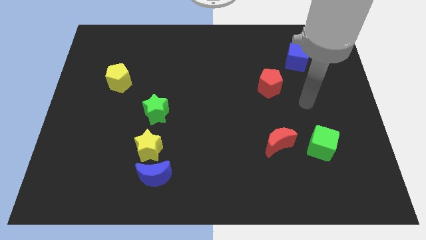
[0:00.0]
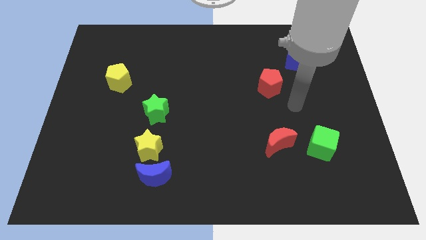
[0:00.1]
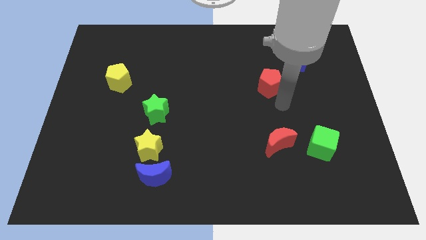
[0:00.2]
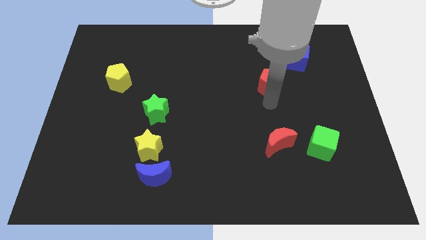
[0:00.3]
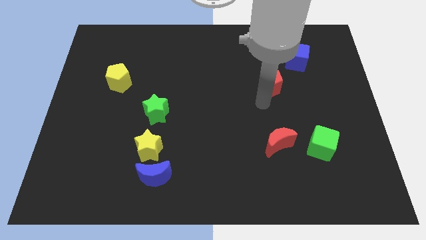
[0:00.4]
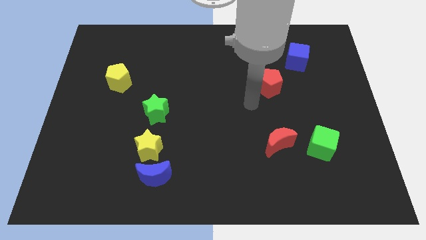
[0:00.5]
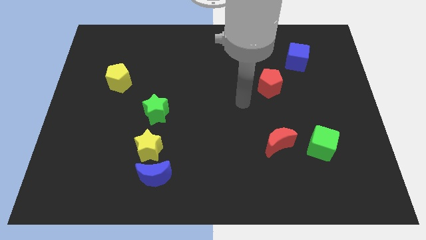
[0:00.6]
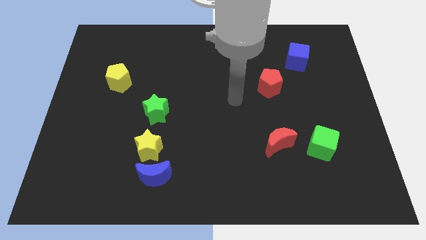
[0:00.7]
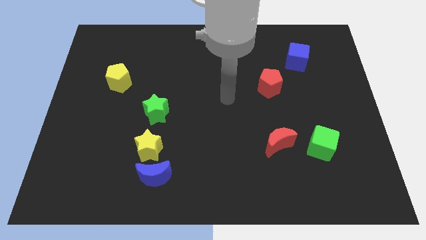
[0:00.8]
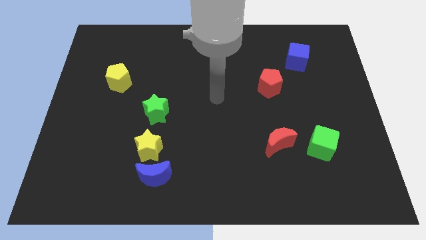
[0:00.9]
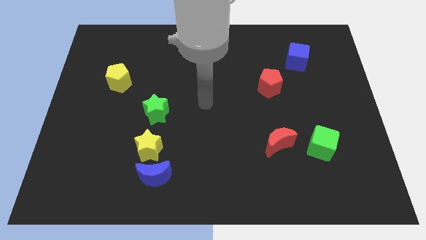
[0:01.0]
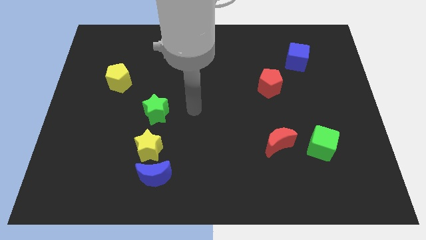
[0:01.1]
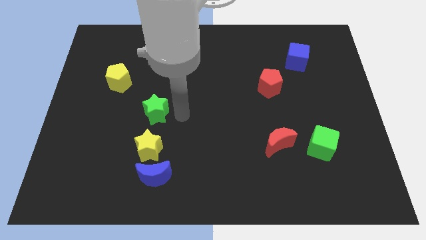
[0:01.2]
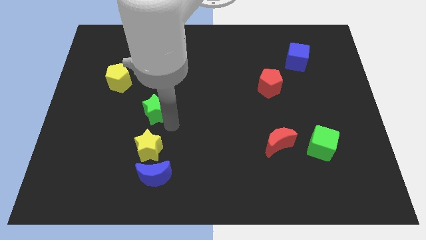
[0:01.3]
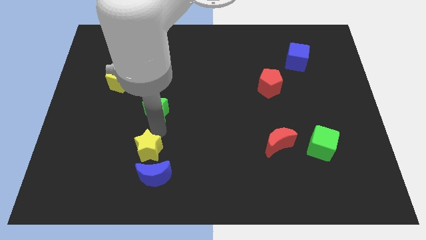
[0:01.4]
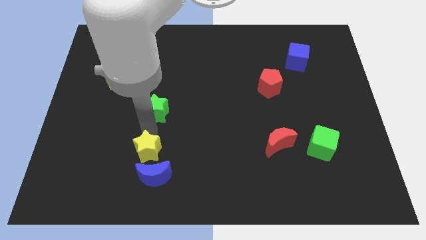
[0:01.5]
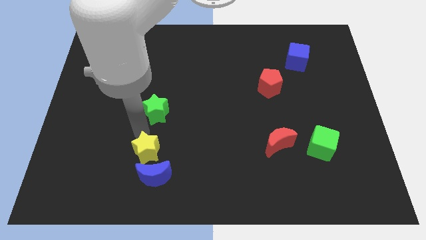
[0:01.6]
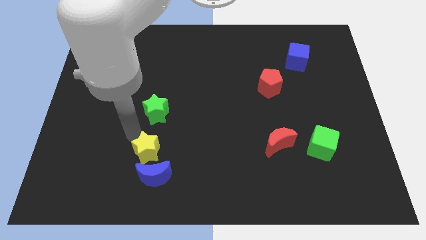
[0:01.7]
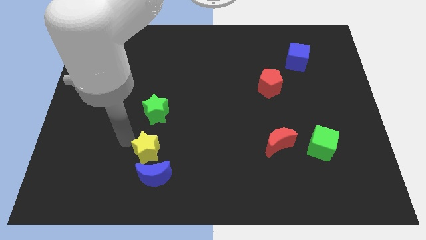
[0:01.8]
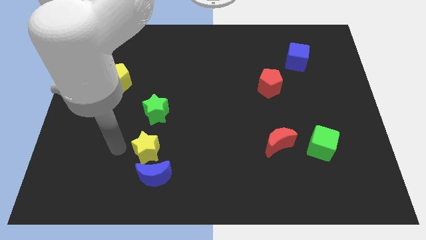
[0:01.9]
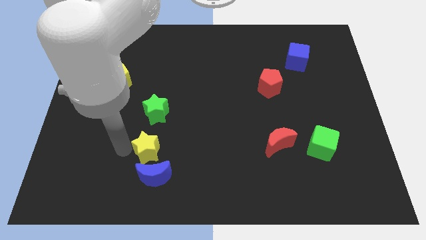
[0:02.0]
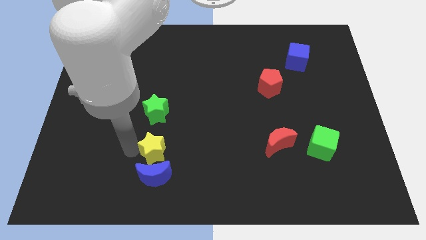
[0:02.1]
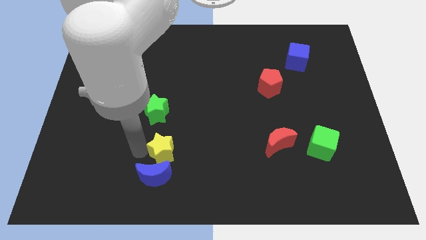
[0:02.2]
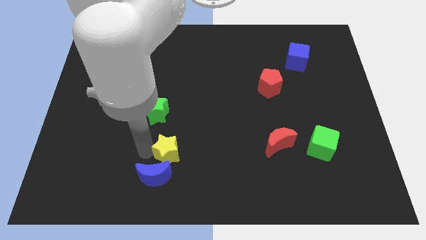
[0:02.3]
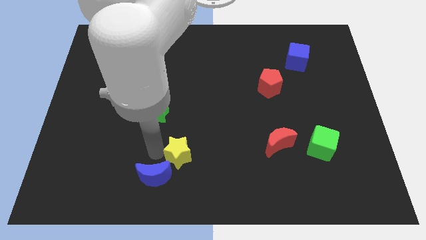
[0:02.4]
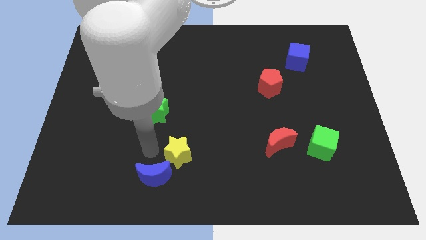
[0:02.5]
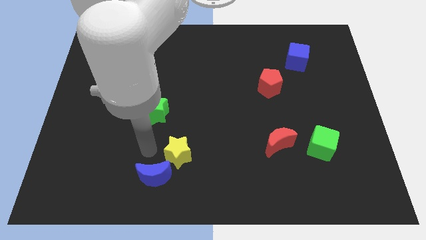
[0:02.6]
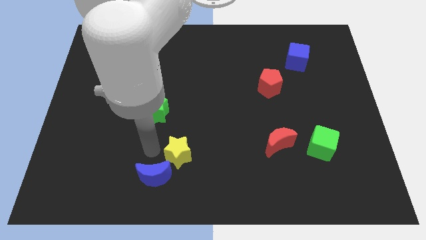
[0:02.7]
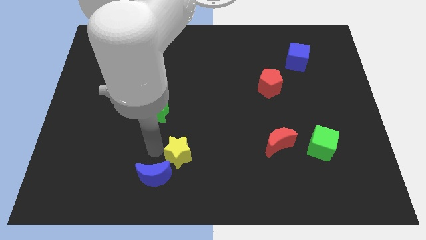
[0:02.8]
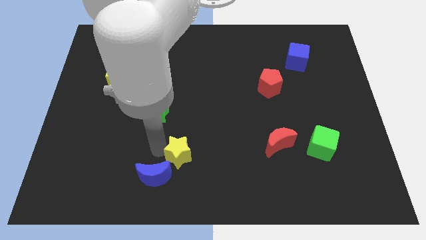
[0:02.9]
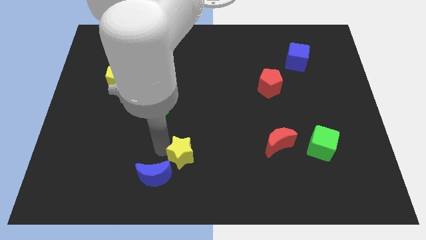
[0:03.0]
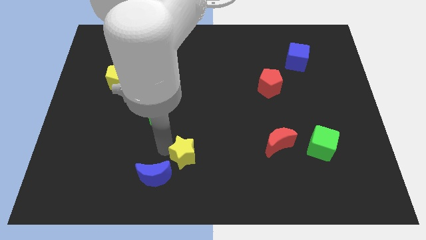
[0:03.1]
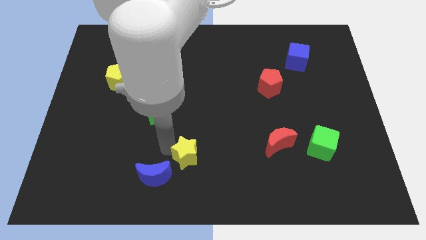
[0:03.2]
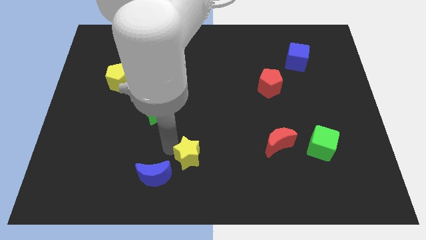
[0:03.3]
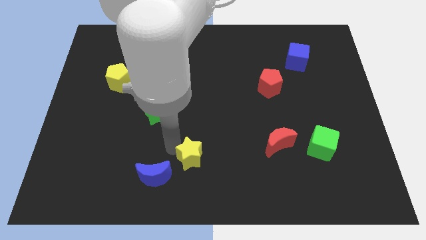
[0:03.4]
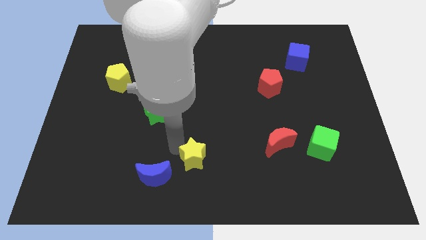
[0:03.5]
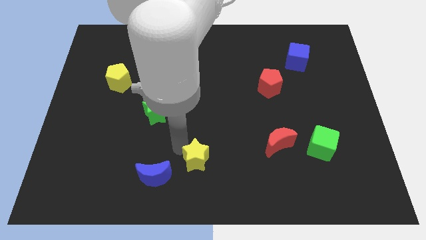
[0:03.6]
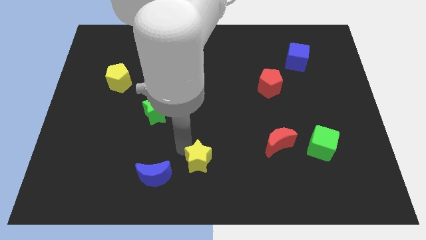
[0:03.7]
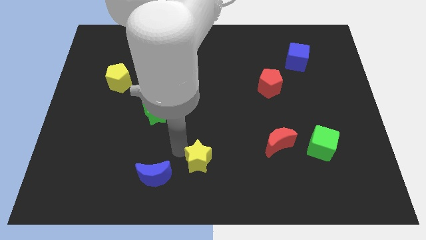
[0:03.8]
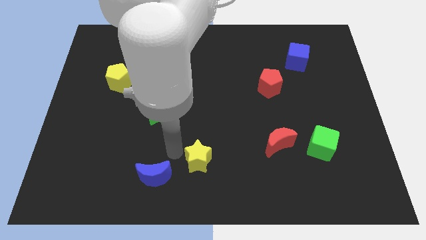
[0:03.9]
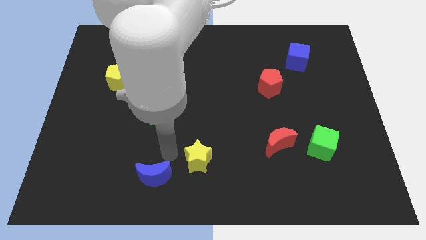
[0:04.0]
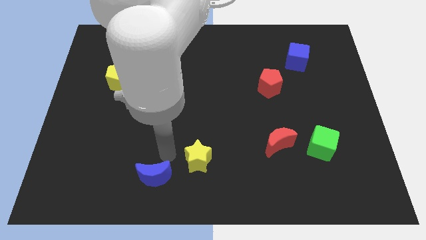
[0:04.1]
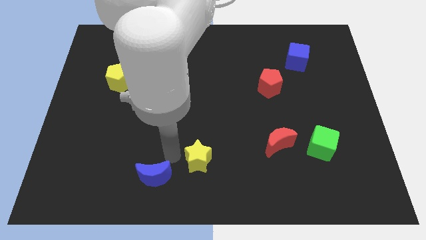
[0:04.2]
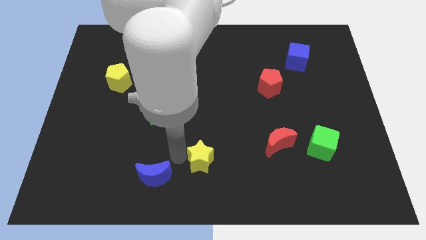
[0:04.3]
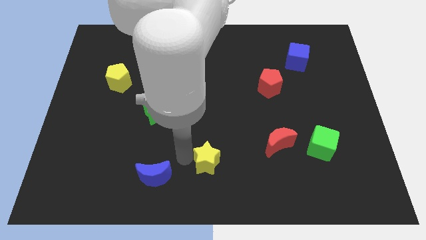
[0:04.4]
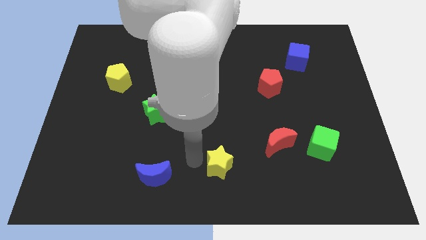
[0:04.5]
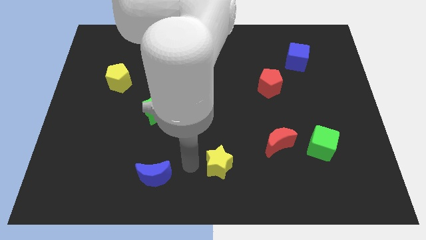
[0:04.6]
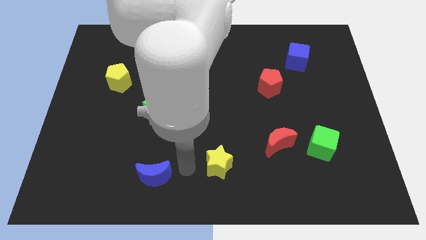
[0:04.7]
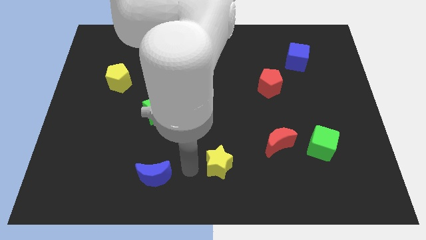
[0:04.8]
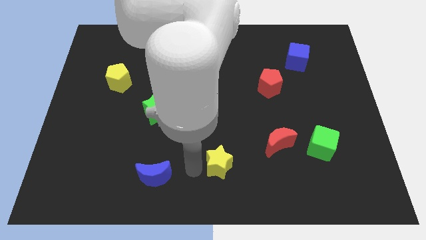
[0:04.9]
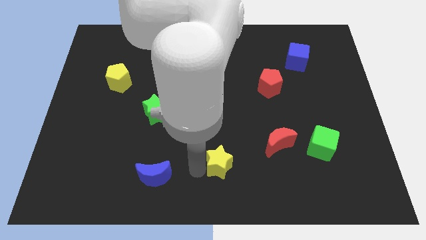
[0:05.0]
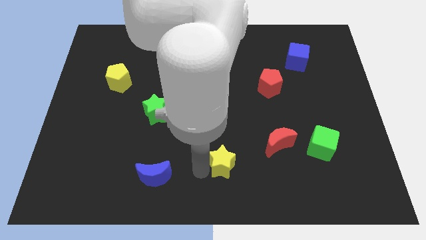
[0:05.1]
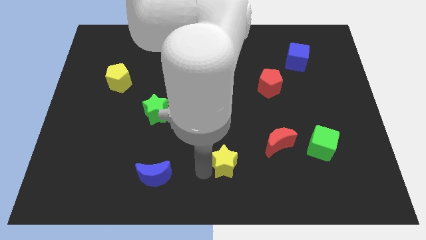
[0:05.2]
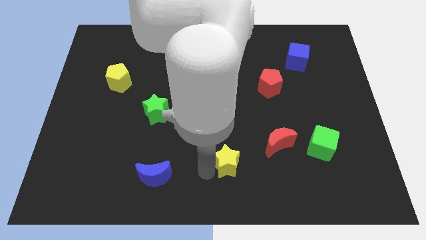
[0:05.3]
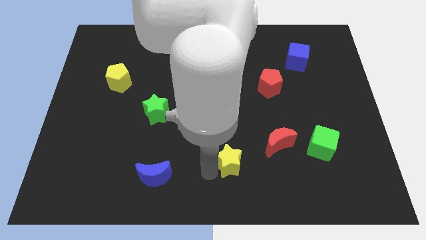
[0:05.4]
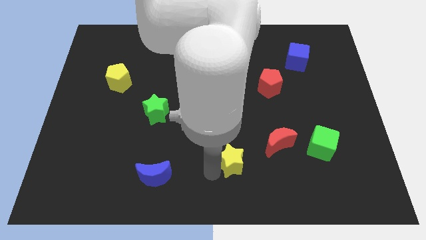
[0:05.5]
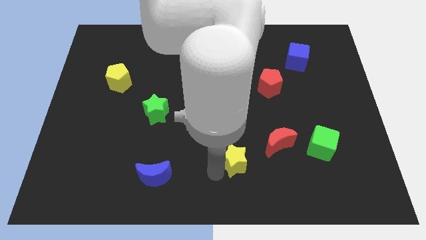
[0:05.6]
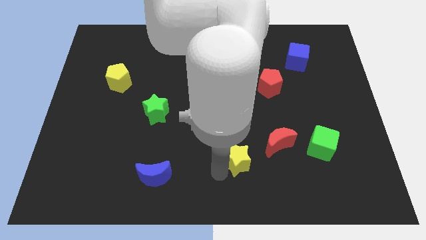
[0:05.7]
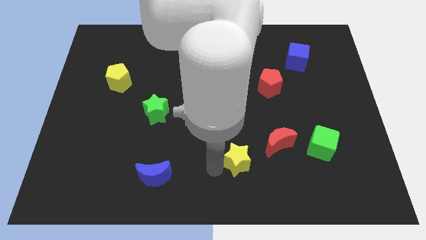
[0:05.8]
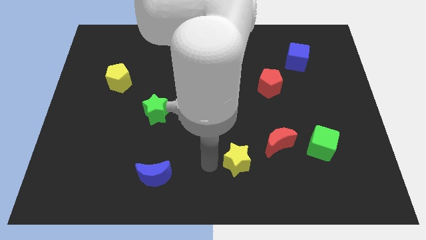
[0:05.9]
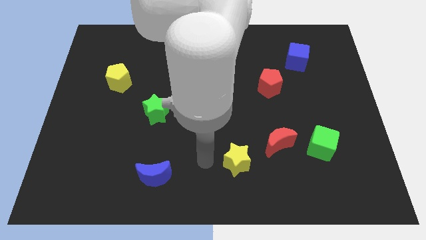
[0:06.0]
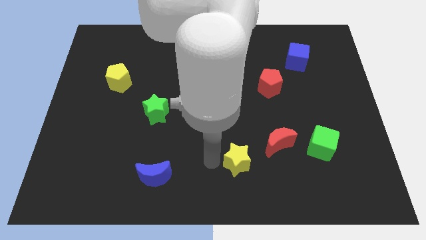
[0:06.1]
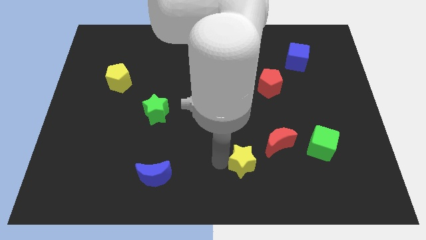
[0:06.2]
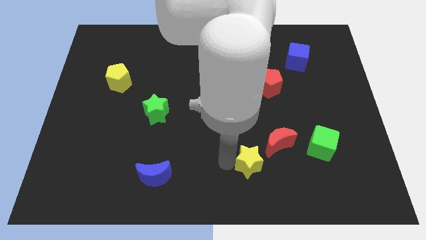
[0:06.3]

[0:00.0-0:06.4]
slide the yellow star right

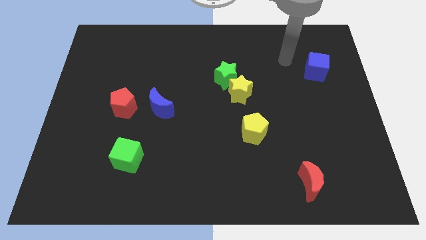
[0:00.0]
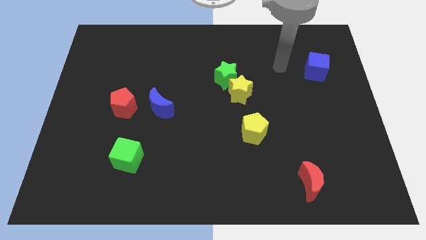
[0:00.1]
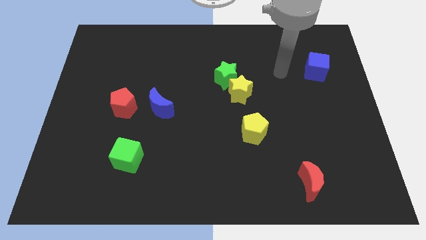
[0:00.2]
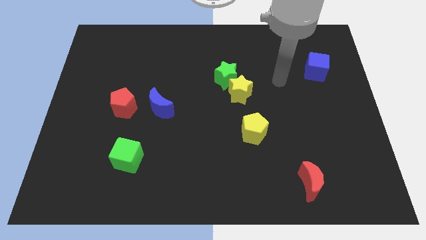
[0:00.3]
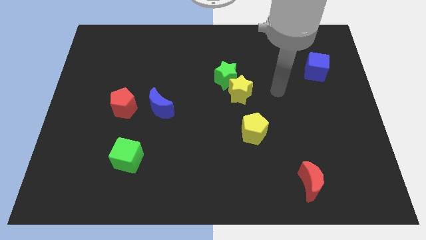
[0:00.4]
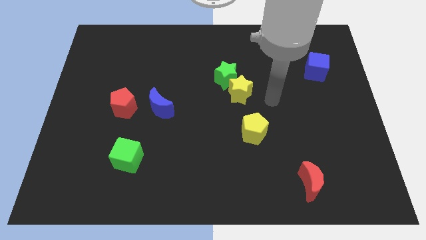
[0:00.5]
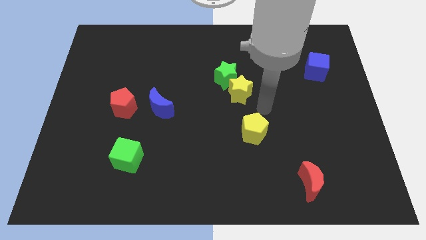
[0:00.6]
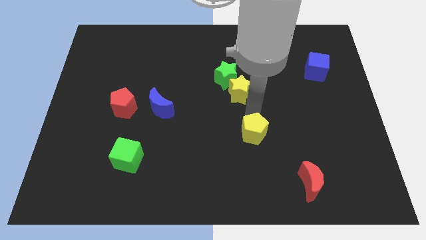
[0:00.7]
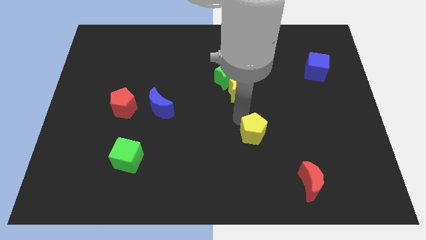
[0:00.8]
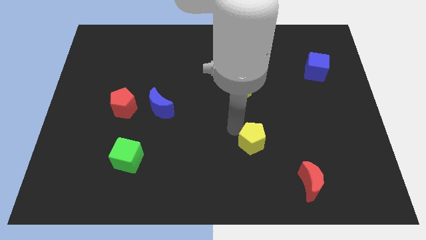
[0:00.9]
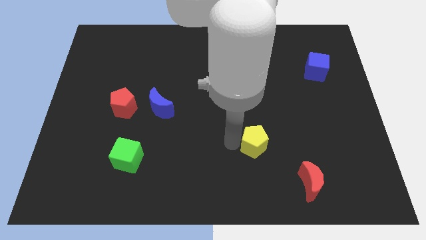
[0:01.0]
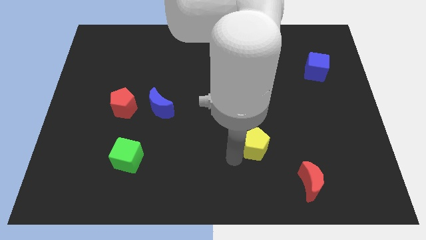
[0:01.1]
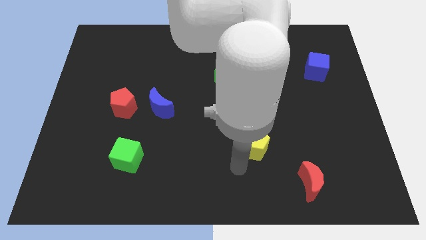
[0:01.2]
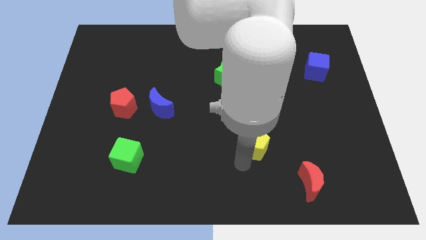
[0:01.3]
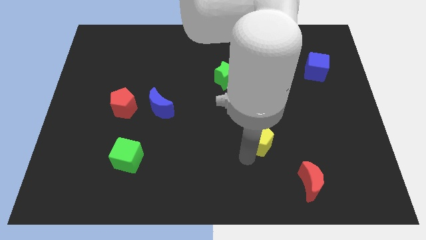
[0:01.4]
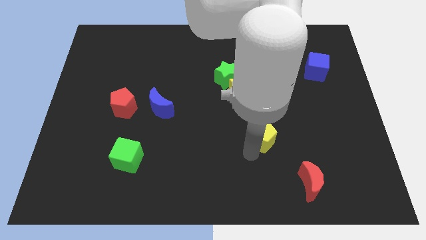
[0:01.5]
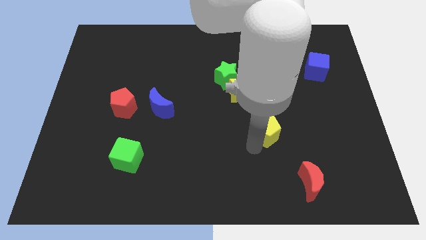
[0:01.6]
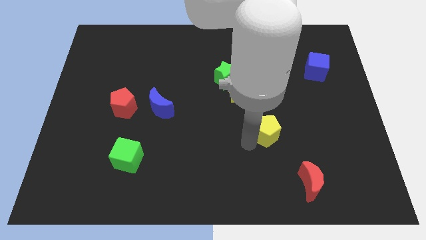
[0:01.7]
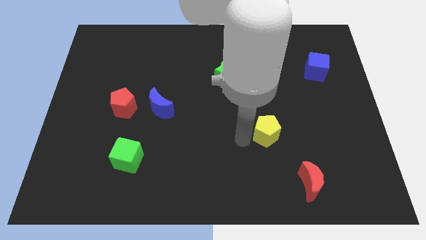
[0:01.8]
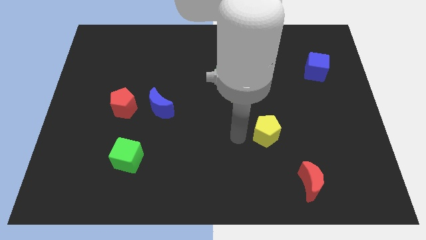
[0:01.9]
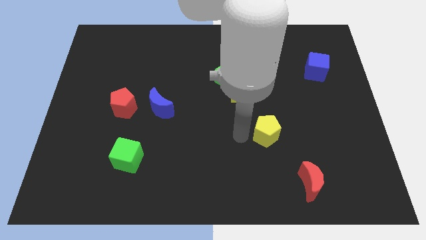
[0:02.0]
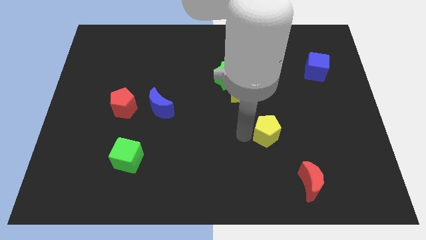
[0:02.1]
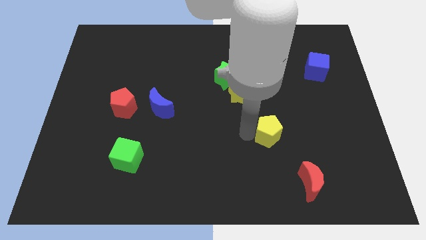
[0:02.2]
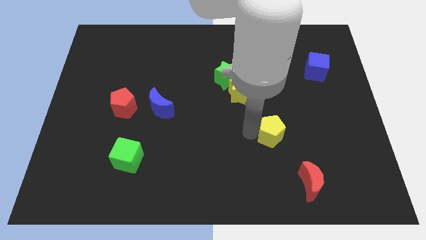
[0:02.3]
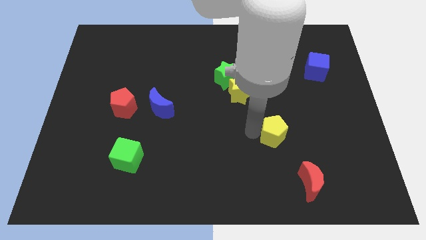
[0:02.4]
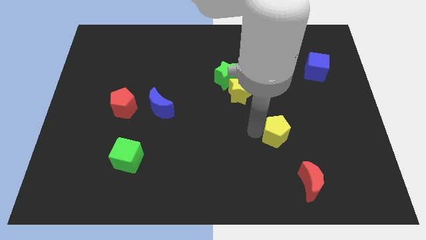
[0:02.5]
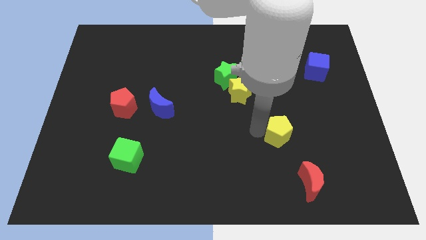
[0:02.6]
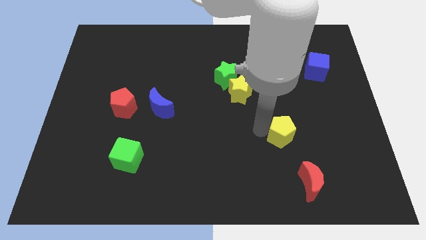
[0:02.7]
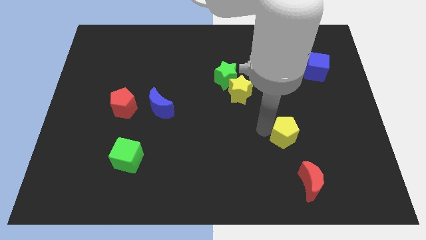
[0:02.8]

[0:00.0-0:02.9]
slightly slide the yellow pentagon to the right
